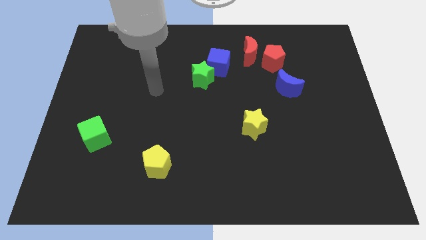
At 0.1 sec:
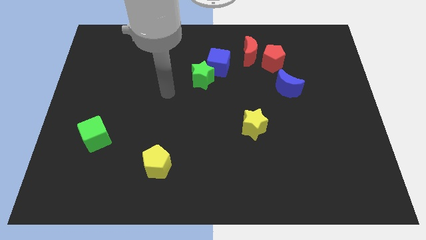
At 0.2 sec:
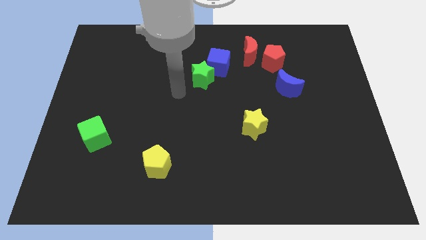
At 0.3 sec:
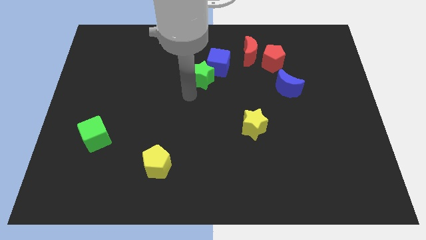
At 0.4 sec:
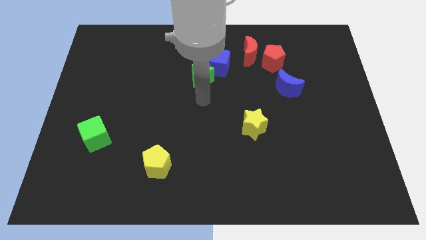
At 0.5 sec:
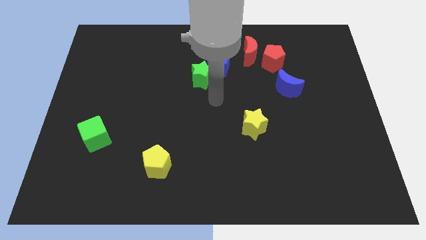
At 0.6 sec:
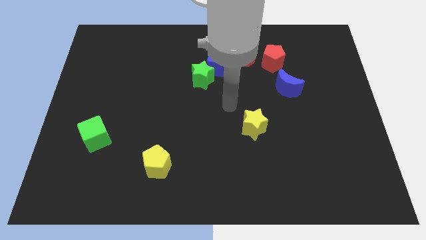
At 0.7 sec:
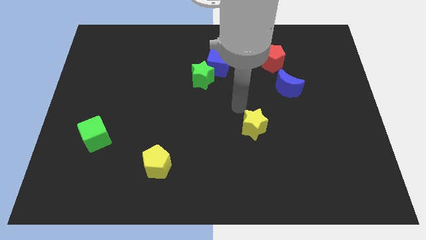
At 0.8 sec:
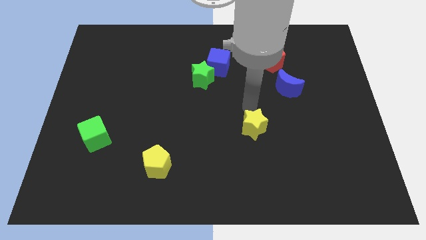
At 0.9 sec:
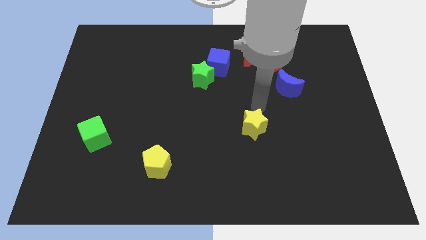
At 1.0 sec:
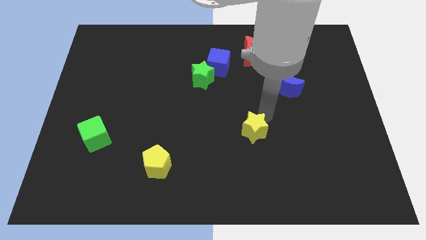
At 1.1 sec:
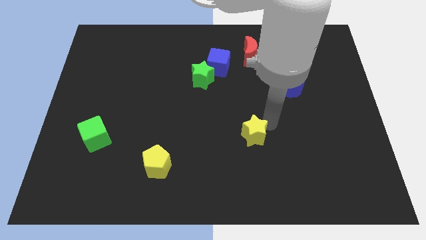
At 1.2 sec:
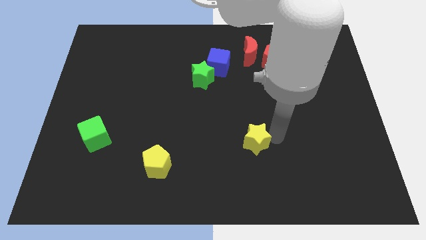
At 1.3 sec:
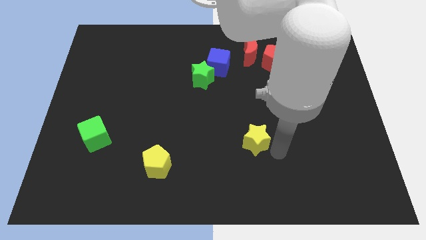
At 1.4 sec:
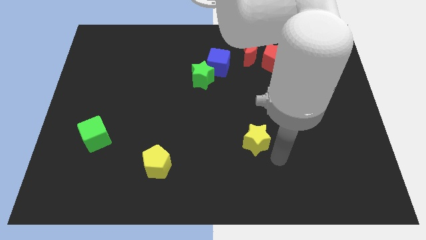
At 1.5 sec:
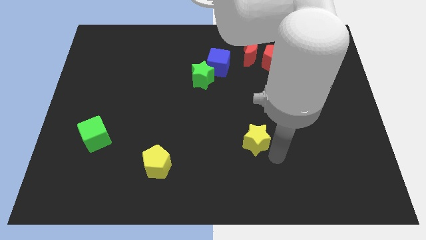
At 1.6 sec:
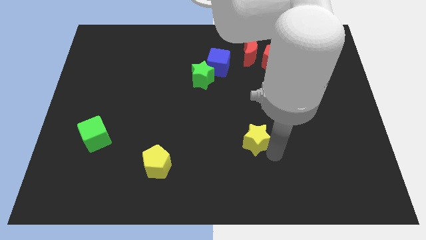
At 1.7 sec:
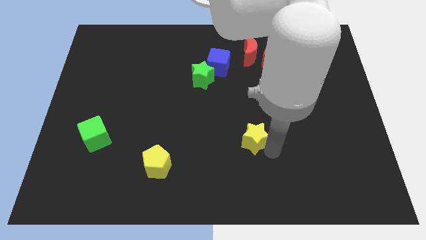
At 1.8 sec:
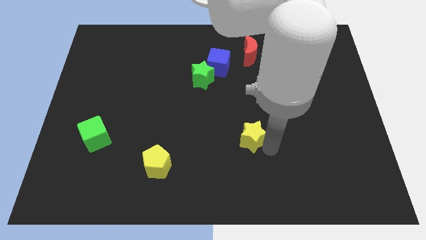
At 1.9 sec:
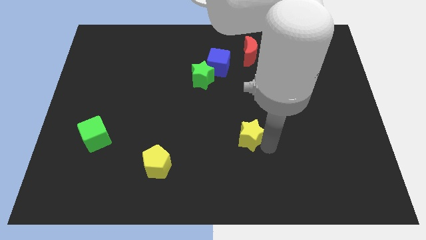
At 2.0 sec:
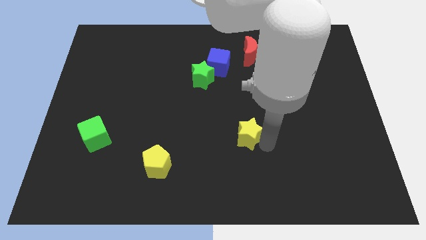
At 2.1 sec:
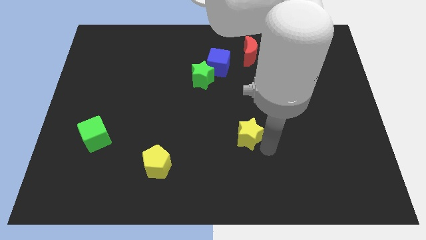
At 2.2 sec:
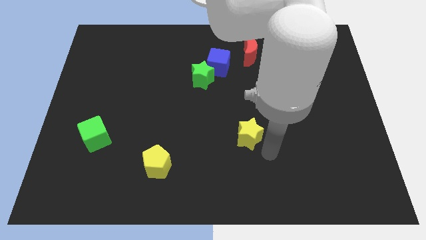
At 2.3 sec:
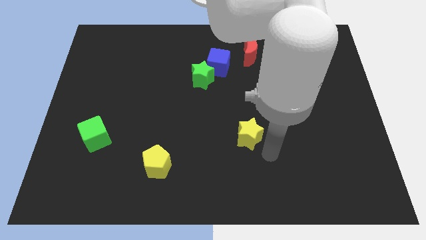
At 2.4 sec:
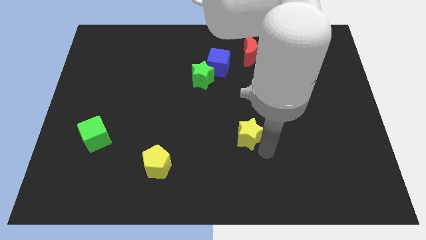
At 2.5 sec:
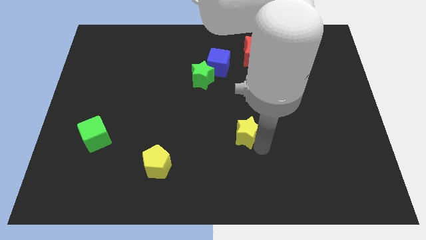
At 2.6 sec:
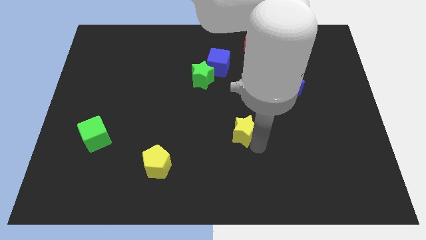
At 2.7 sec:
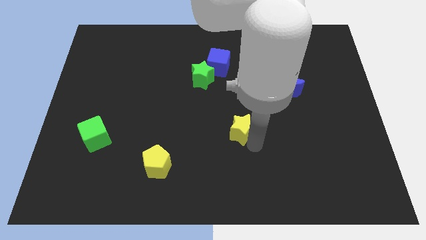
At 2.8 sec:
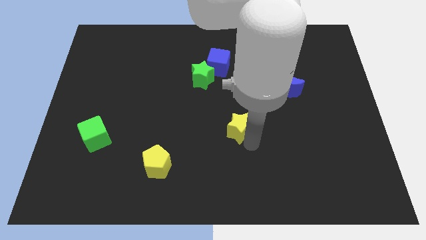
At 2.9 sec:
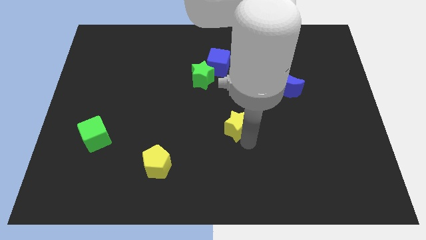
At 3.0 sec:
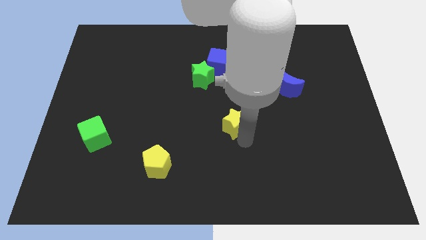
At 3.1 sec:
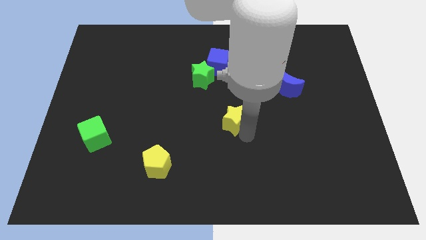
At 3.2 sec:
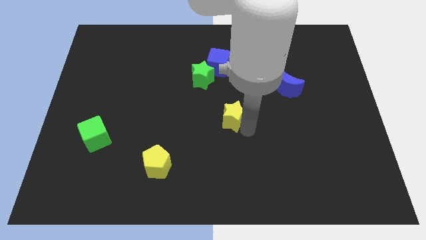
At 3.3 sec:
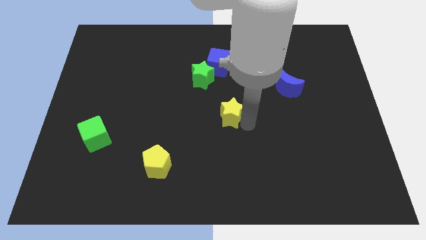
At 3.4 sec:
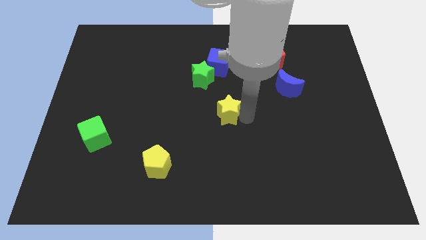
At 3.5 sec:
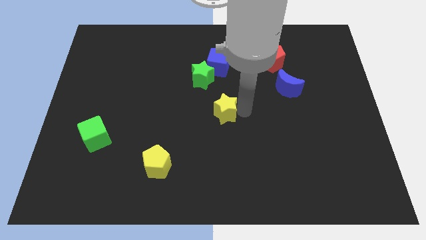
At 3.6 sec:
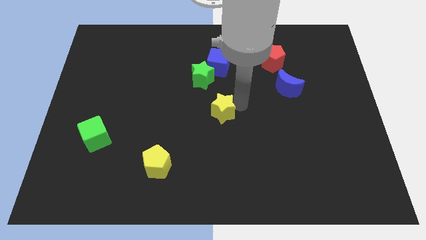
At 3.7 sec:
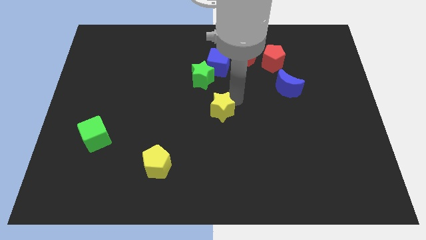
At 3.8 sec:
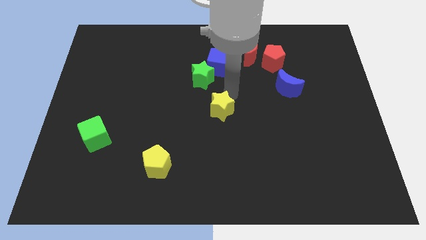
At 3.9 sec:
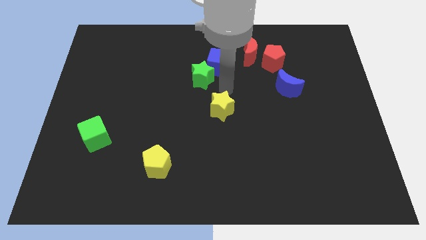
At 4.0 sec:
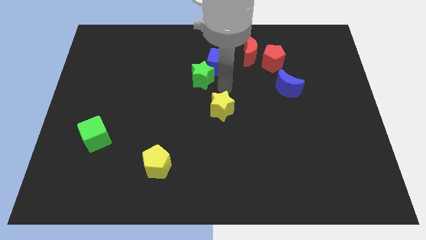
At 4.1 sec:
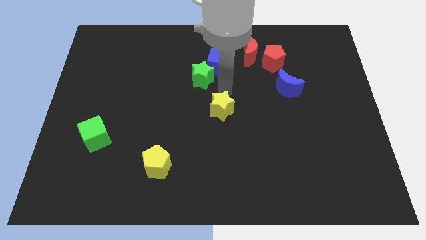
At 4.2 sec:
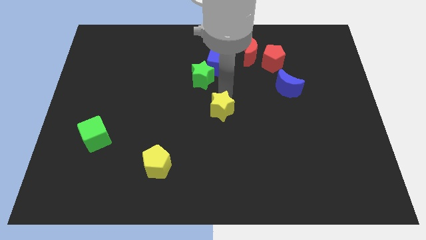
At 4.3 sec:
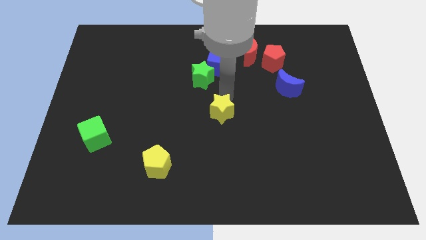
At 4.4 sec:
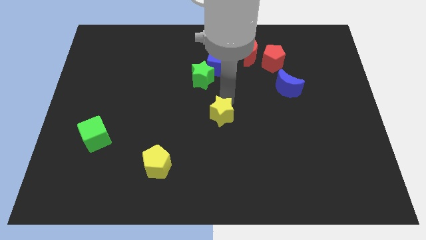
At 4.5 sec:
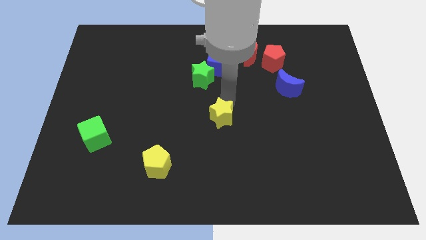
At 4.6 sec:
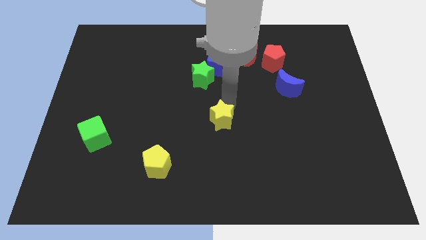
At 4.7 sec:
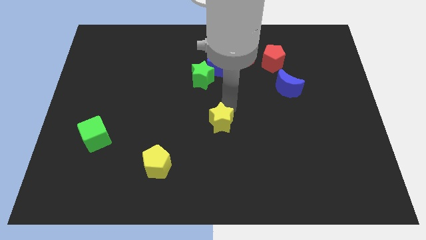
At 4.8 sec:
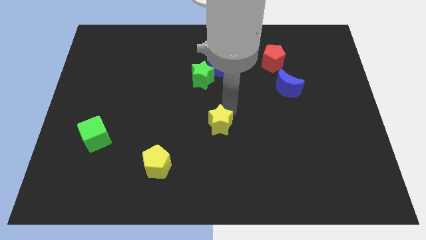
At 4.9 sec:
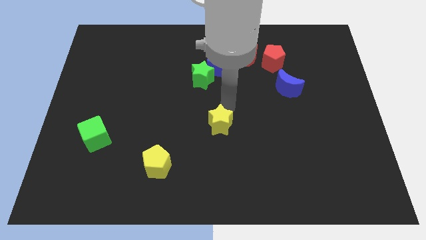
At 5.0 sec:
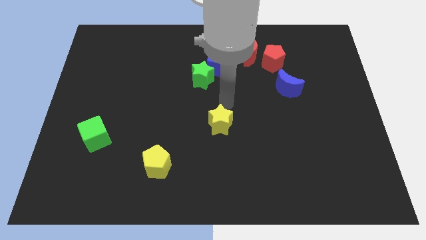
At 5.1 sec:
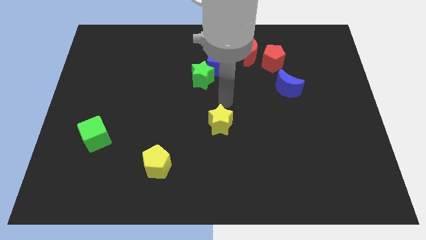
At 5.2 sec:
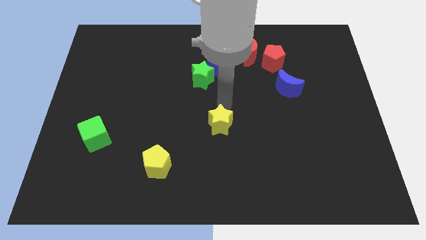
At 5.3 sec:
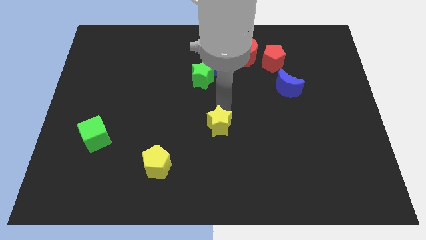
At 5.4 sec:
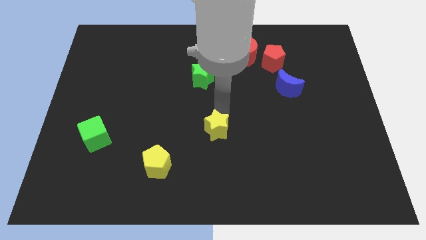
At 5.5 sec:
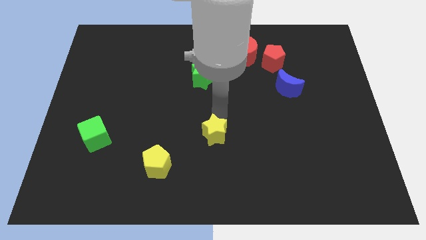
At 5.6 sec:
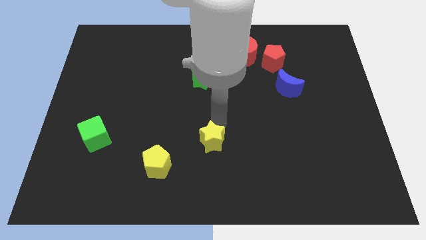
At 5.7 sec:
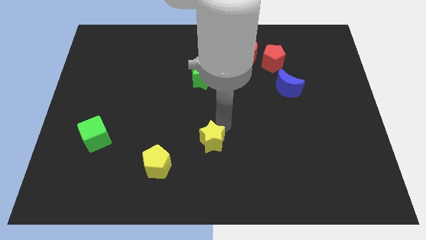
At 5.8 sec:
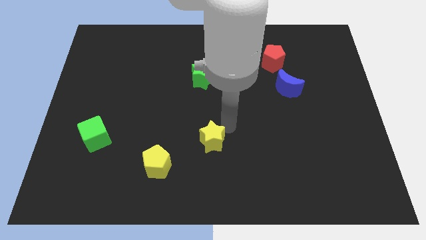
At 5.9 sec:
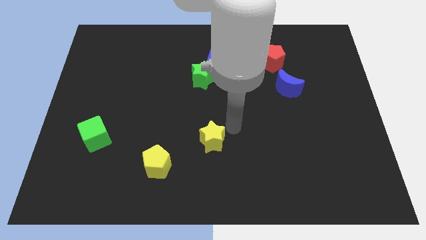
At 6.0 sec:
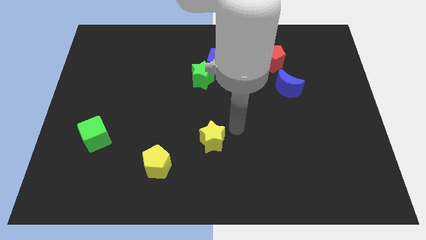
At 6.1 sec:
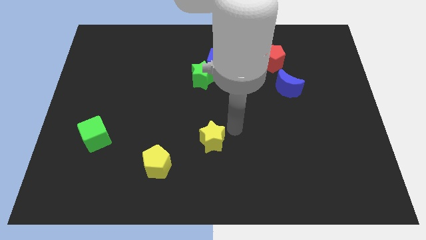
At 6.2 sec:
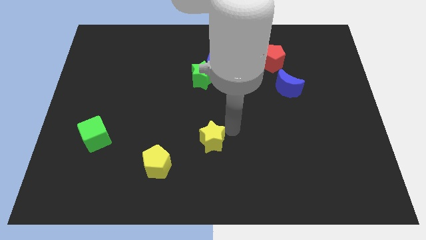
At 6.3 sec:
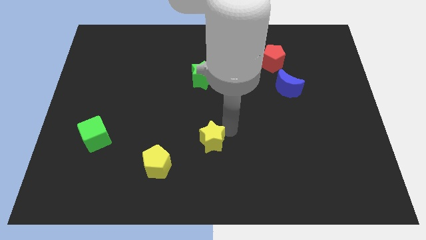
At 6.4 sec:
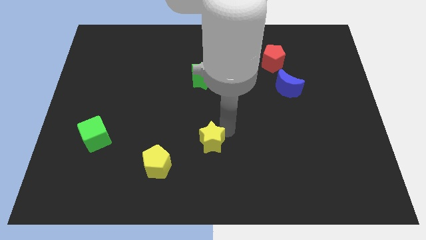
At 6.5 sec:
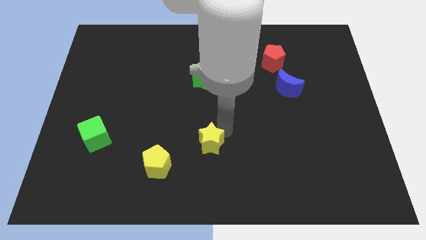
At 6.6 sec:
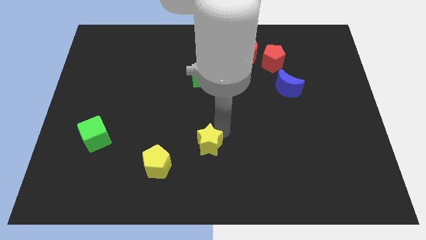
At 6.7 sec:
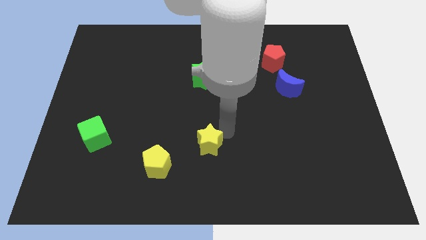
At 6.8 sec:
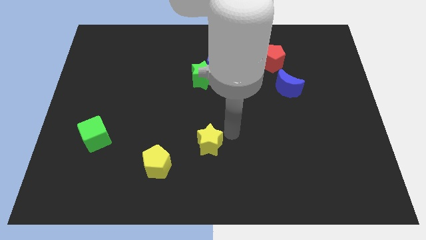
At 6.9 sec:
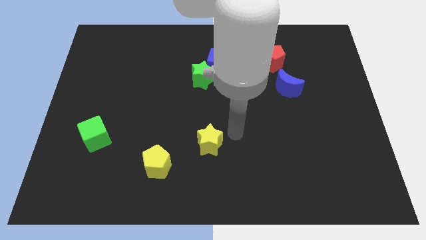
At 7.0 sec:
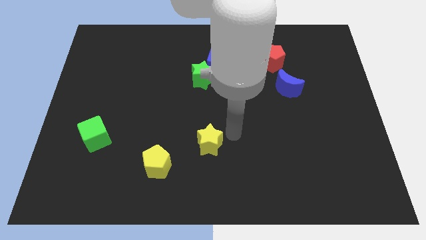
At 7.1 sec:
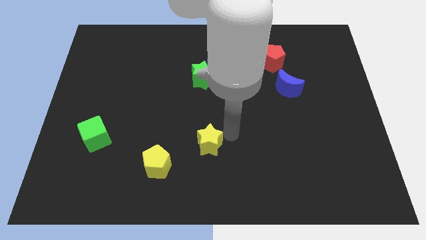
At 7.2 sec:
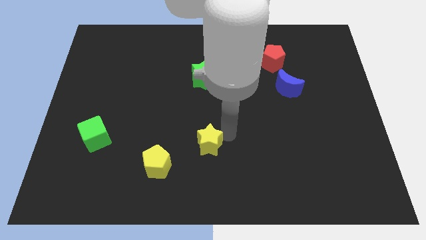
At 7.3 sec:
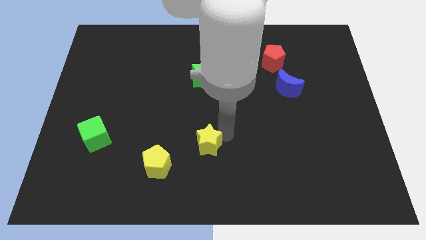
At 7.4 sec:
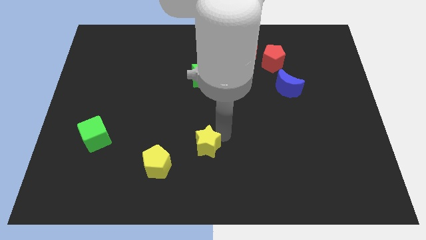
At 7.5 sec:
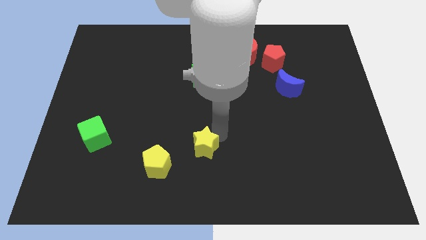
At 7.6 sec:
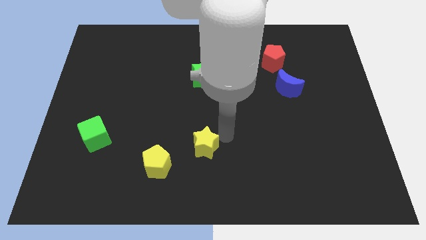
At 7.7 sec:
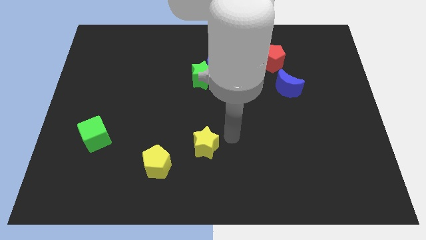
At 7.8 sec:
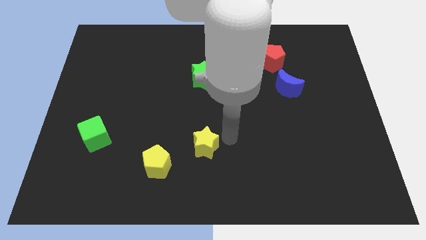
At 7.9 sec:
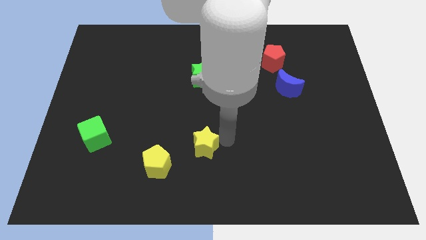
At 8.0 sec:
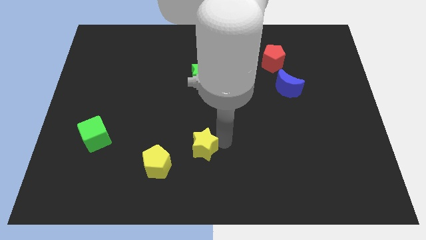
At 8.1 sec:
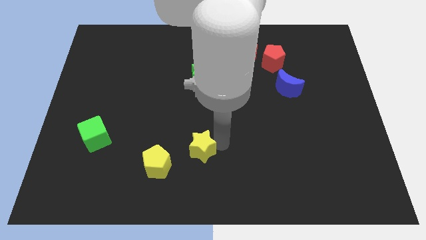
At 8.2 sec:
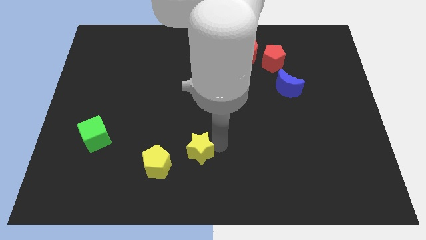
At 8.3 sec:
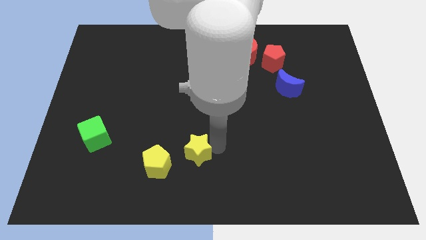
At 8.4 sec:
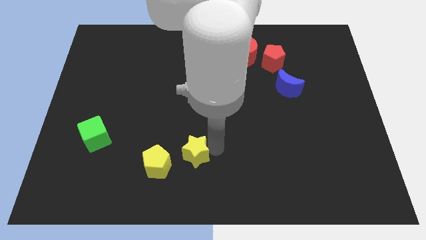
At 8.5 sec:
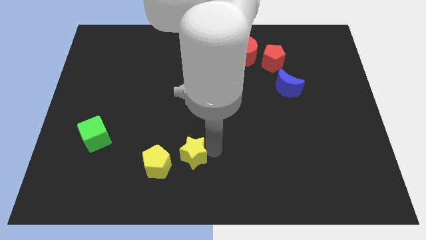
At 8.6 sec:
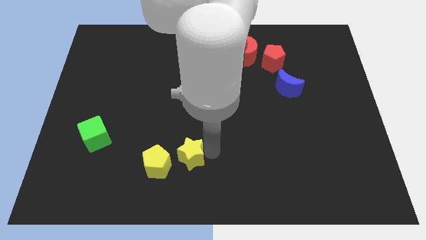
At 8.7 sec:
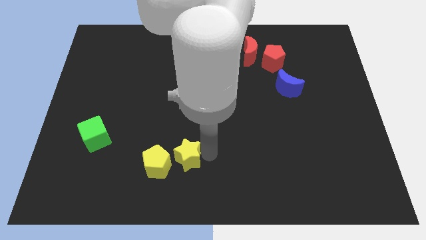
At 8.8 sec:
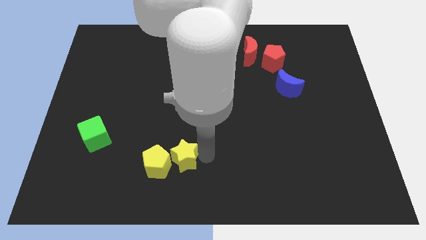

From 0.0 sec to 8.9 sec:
move the yellow star towards the yellow pentagon
